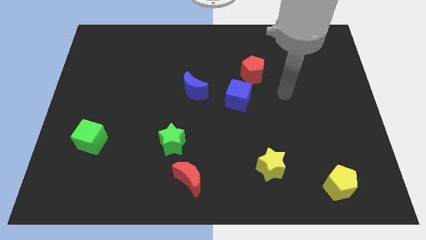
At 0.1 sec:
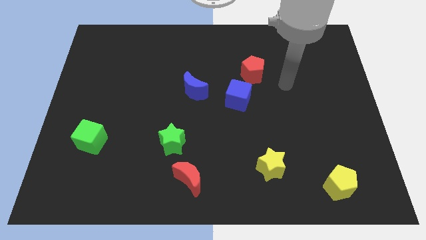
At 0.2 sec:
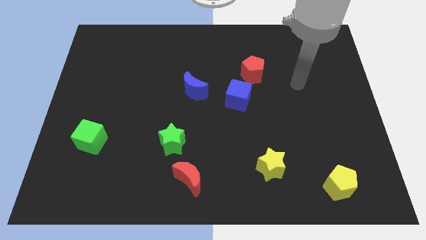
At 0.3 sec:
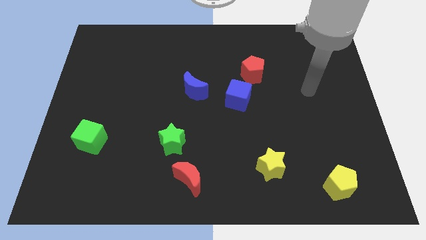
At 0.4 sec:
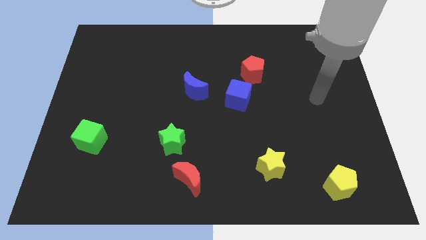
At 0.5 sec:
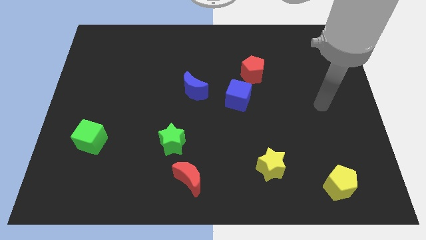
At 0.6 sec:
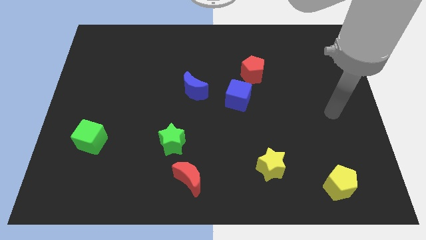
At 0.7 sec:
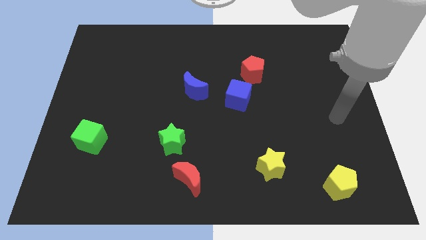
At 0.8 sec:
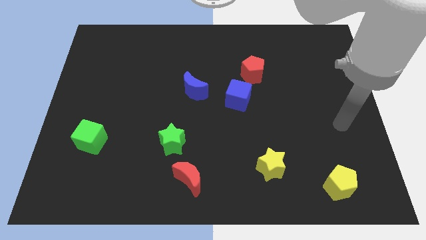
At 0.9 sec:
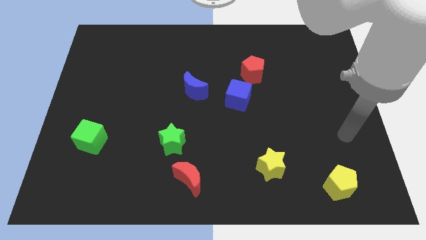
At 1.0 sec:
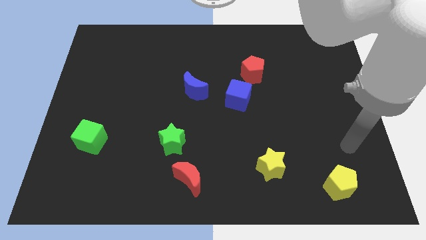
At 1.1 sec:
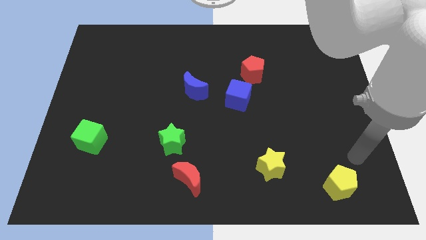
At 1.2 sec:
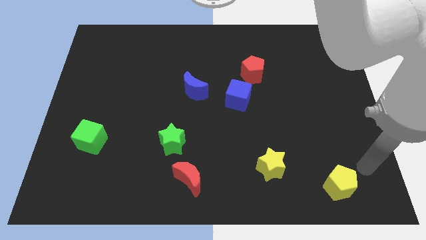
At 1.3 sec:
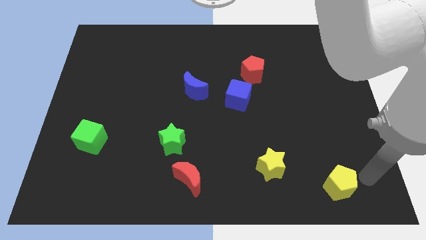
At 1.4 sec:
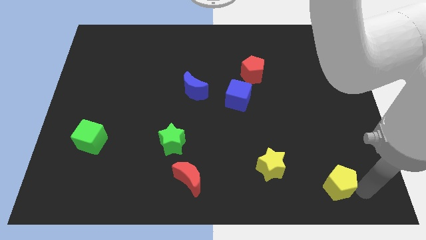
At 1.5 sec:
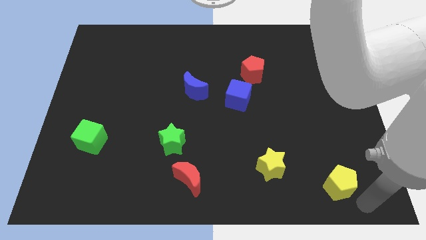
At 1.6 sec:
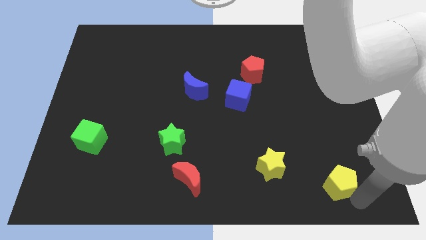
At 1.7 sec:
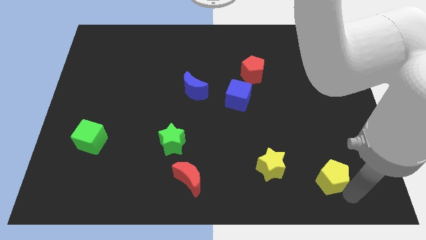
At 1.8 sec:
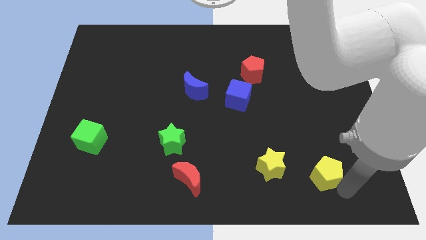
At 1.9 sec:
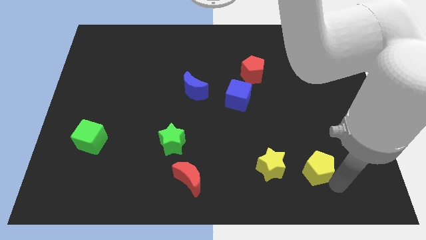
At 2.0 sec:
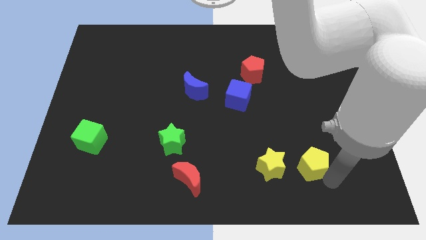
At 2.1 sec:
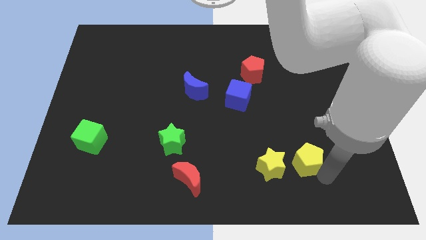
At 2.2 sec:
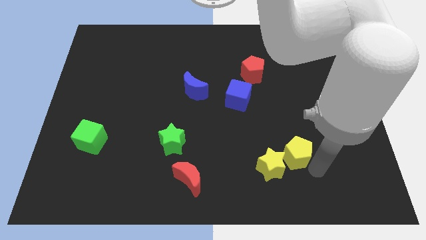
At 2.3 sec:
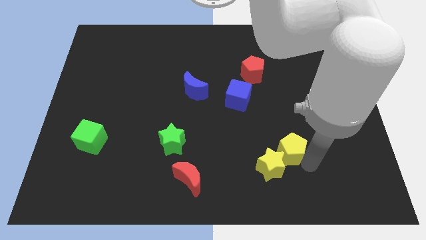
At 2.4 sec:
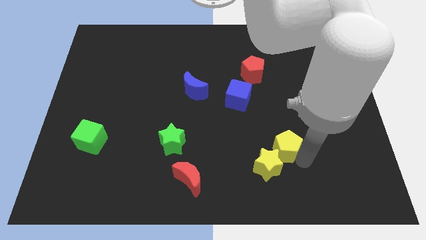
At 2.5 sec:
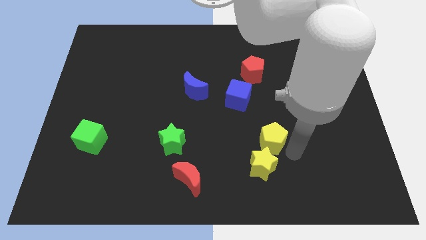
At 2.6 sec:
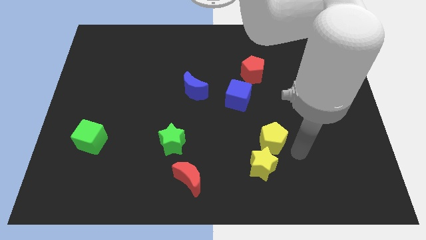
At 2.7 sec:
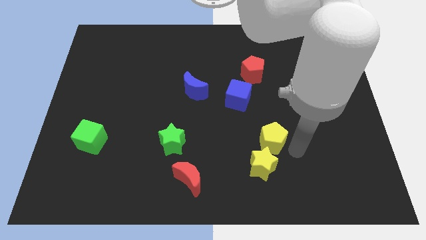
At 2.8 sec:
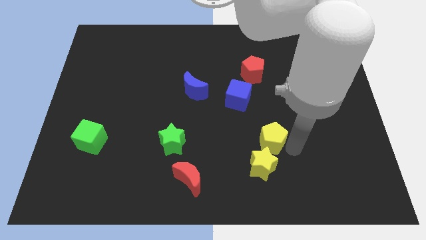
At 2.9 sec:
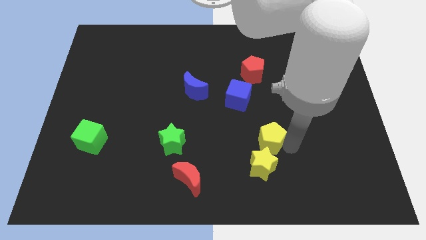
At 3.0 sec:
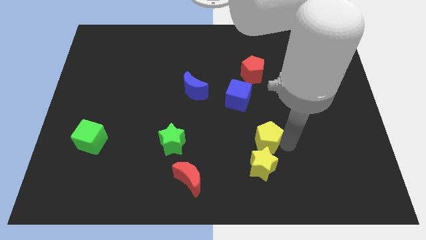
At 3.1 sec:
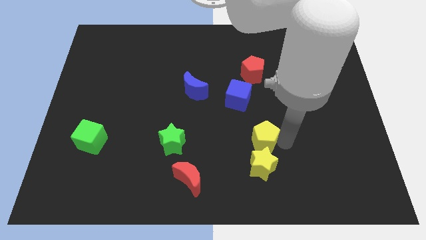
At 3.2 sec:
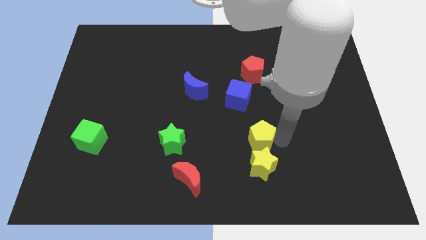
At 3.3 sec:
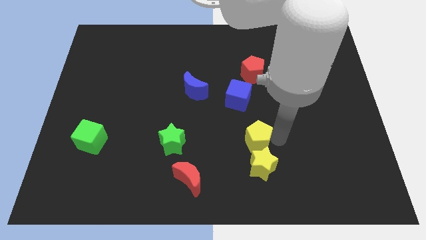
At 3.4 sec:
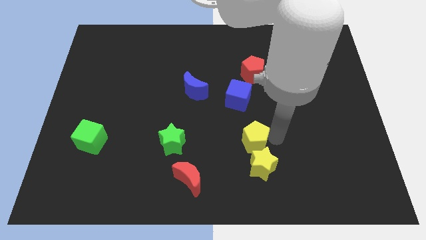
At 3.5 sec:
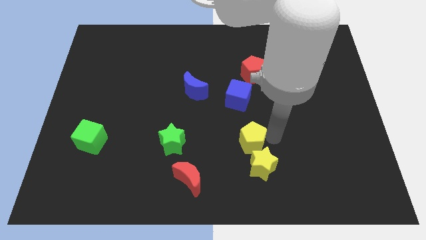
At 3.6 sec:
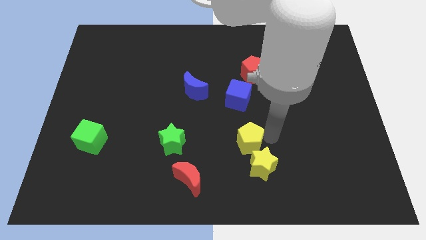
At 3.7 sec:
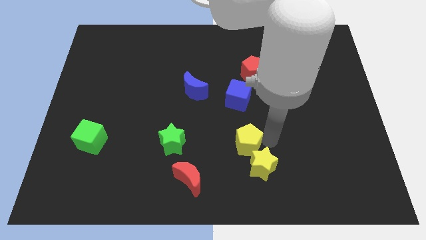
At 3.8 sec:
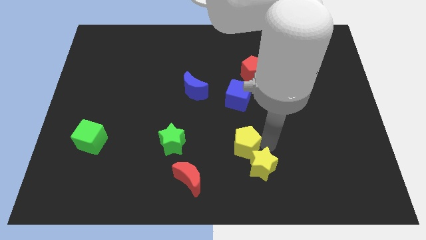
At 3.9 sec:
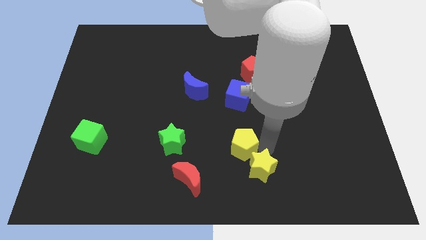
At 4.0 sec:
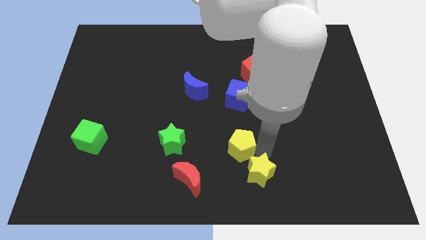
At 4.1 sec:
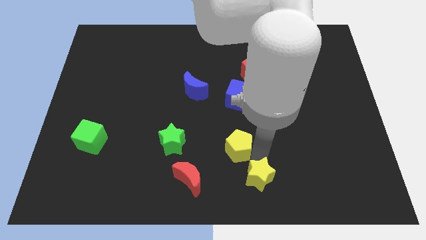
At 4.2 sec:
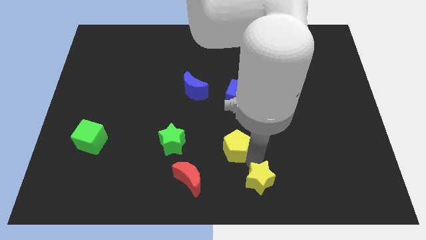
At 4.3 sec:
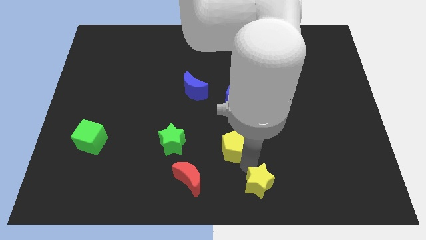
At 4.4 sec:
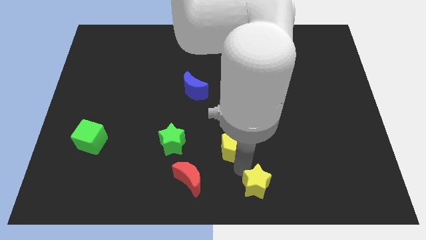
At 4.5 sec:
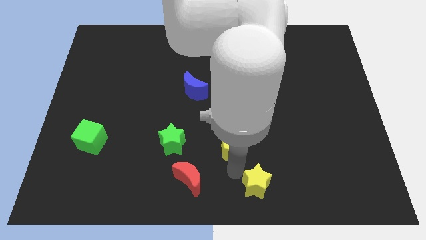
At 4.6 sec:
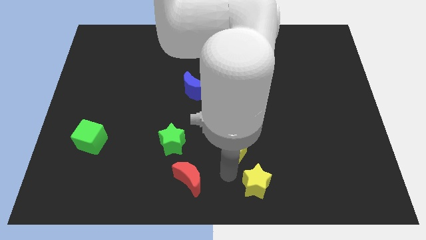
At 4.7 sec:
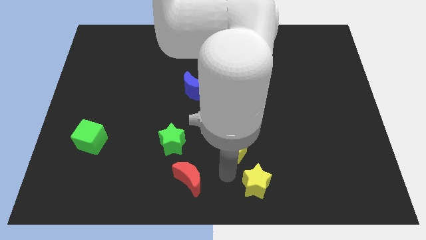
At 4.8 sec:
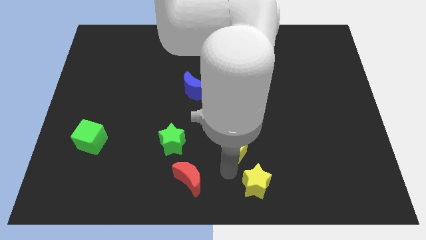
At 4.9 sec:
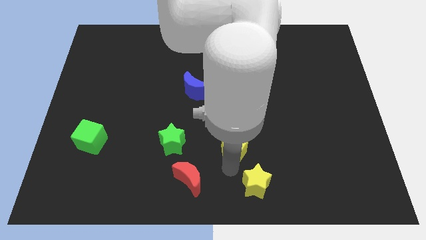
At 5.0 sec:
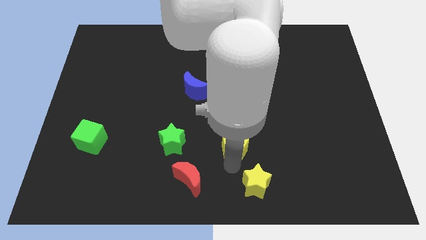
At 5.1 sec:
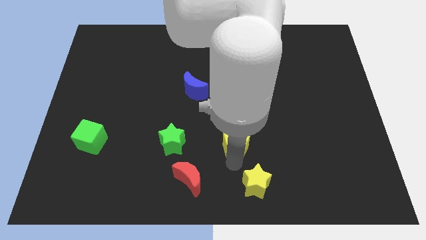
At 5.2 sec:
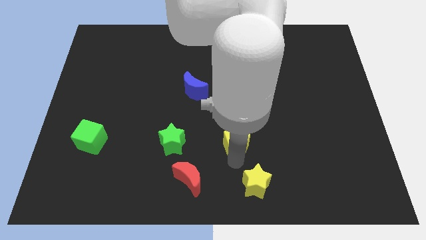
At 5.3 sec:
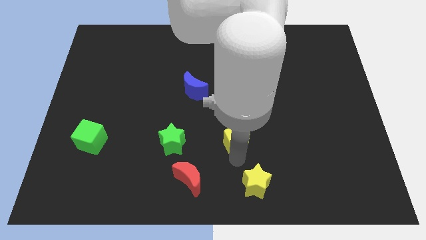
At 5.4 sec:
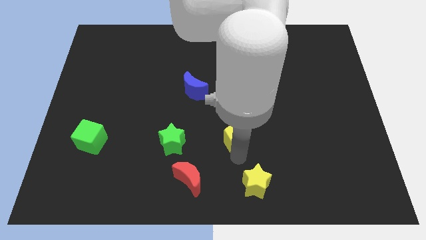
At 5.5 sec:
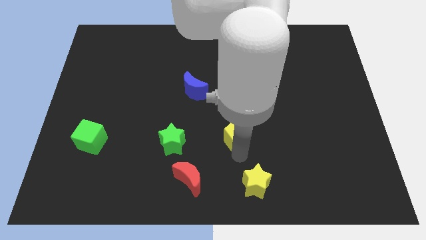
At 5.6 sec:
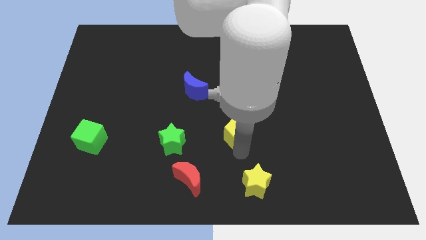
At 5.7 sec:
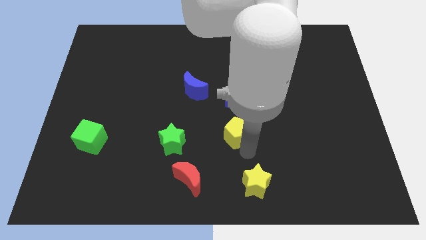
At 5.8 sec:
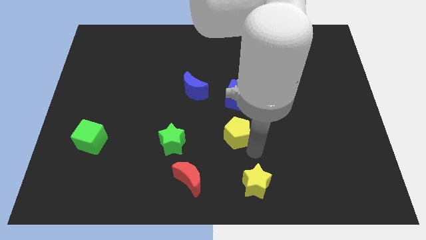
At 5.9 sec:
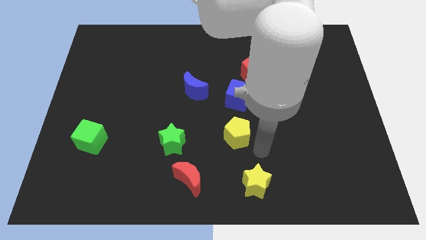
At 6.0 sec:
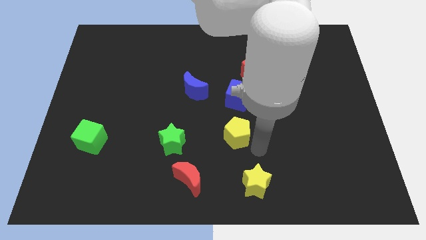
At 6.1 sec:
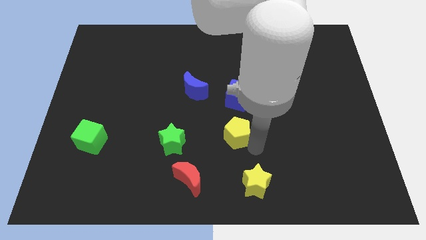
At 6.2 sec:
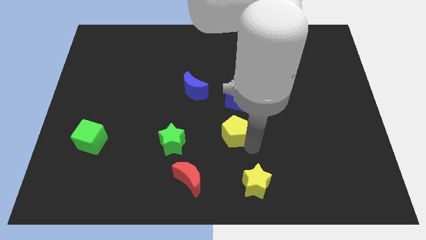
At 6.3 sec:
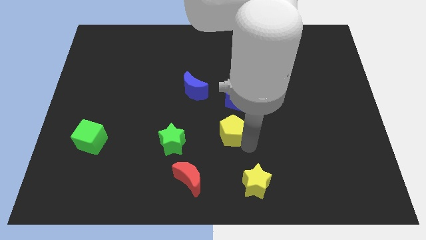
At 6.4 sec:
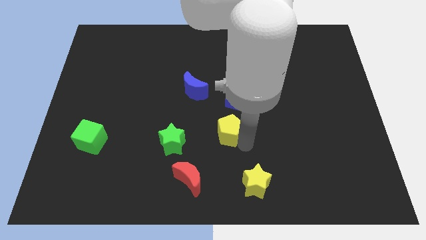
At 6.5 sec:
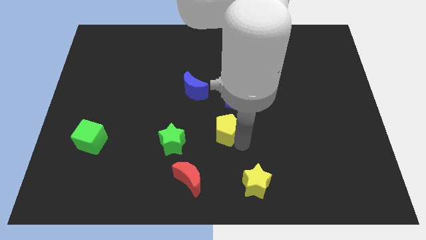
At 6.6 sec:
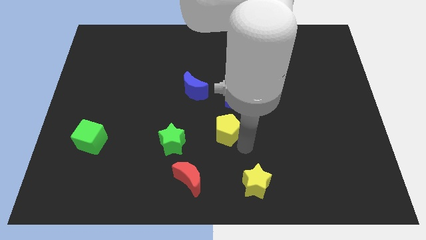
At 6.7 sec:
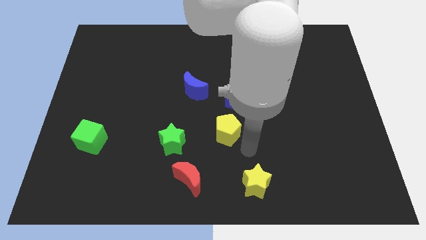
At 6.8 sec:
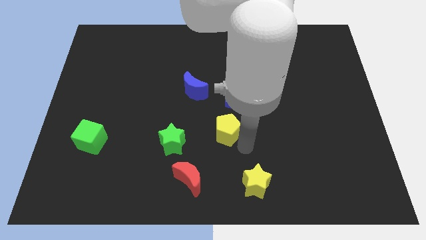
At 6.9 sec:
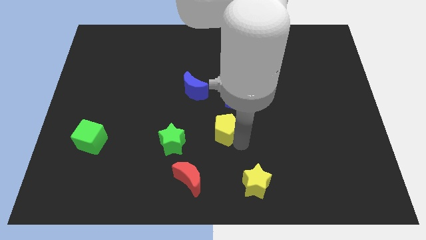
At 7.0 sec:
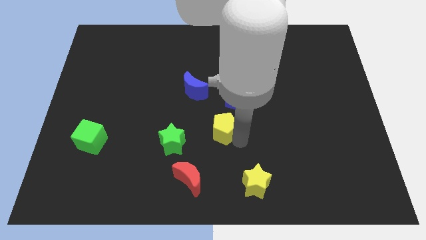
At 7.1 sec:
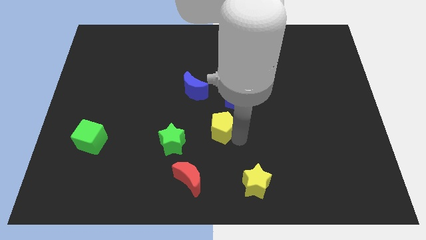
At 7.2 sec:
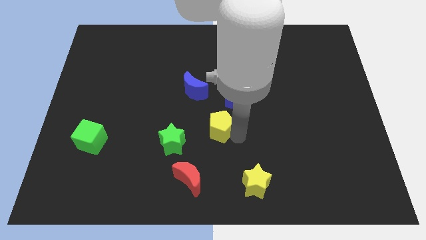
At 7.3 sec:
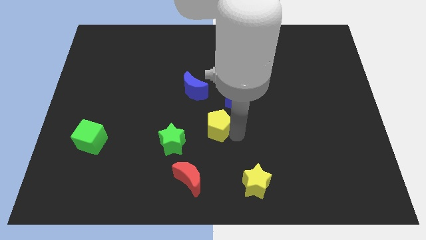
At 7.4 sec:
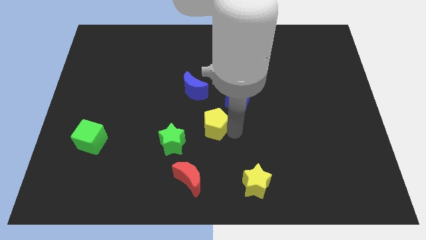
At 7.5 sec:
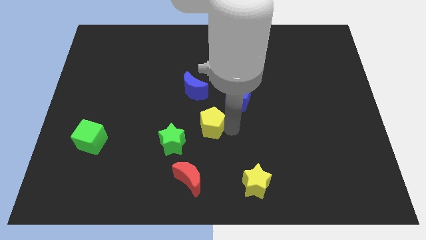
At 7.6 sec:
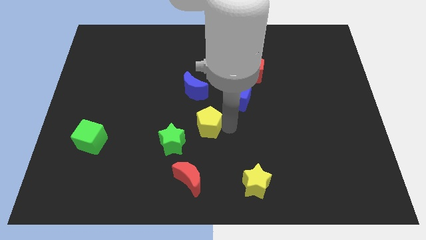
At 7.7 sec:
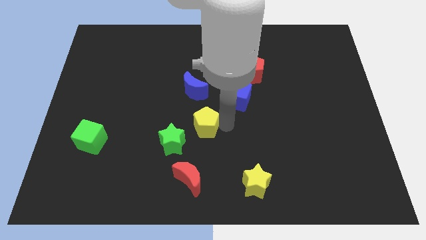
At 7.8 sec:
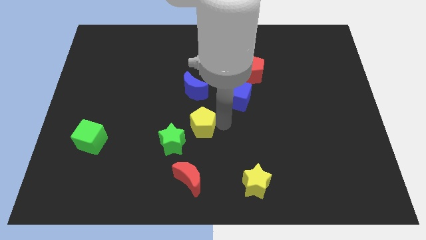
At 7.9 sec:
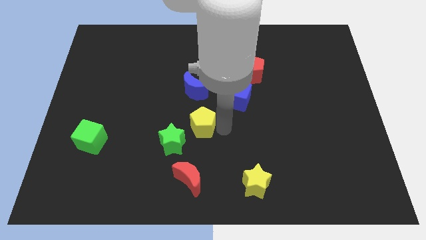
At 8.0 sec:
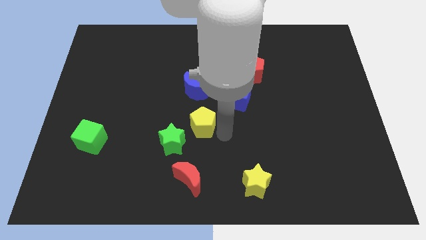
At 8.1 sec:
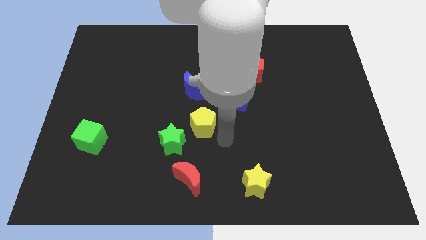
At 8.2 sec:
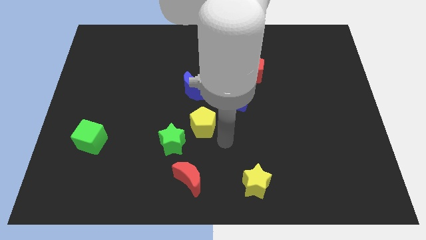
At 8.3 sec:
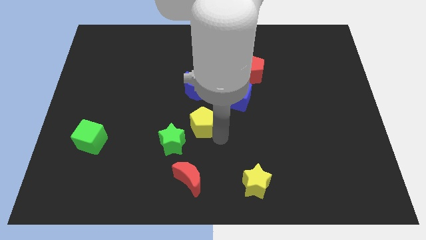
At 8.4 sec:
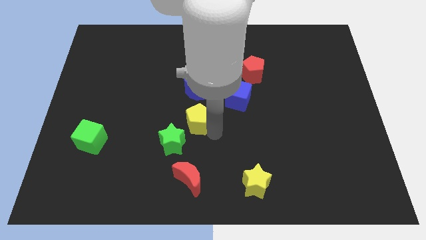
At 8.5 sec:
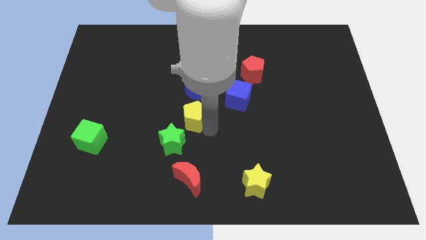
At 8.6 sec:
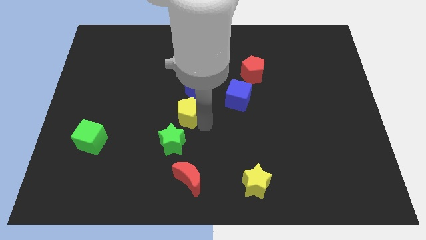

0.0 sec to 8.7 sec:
move the yellow pentagon diagonally down and to the left of the blue moon
